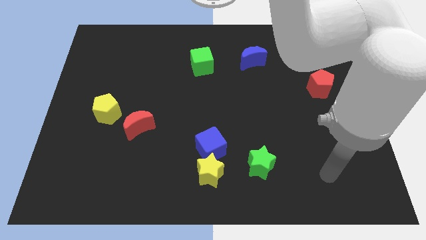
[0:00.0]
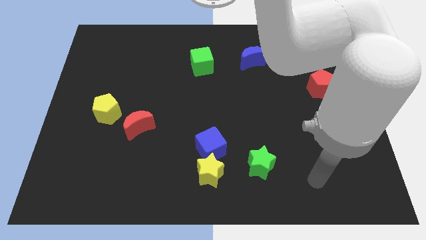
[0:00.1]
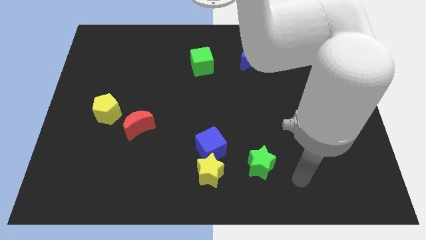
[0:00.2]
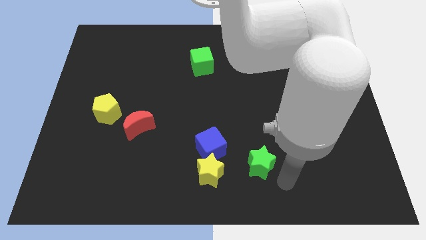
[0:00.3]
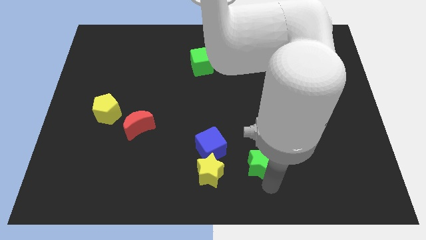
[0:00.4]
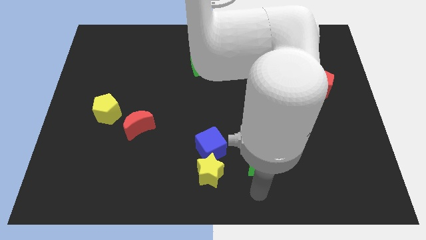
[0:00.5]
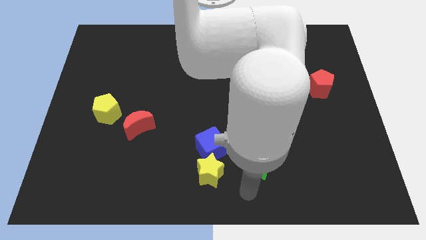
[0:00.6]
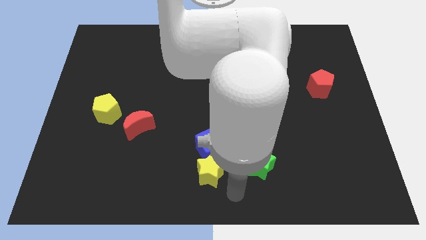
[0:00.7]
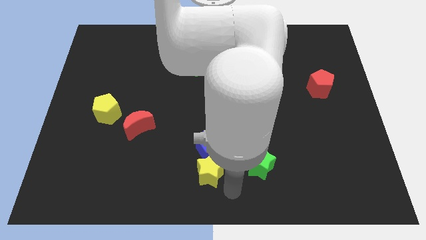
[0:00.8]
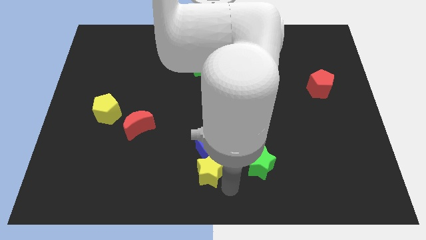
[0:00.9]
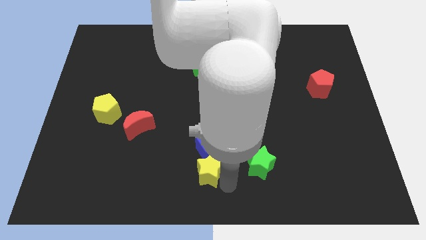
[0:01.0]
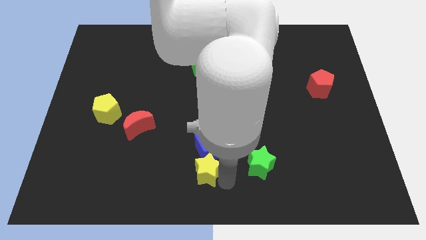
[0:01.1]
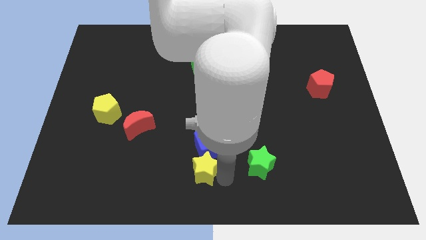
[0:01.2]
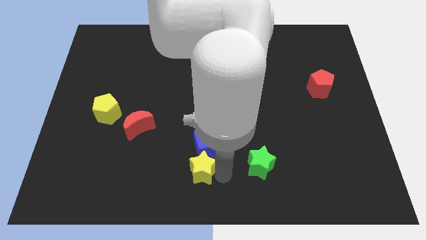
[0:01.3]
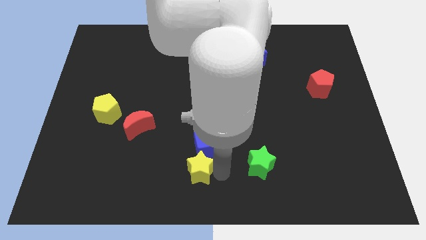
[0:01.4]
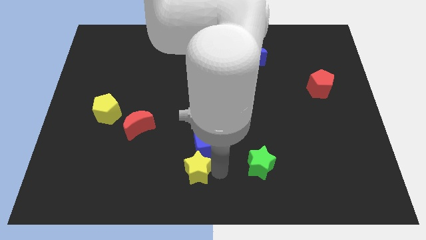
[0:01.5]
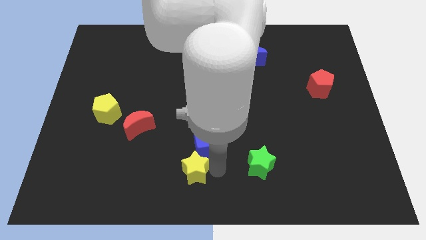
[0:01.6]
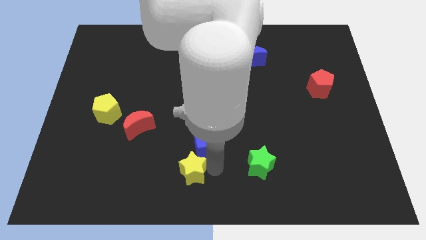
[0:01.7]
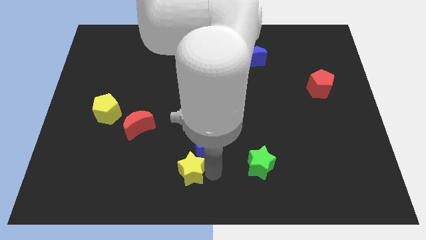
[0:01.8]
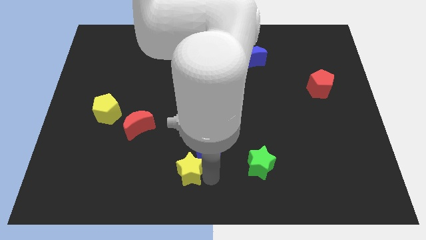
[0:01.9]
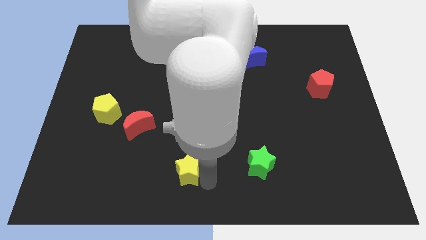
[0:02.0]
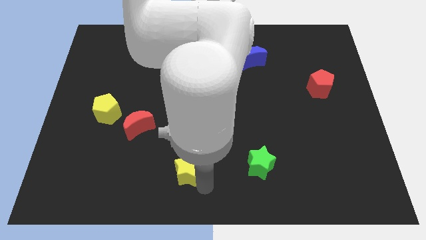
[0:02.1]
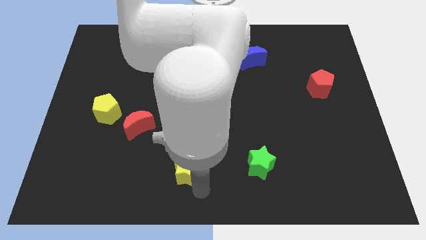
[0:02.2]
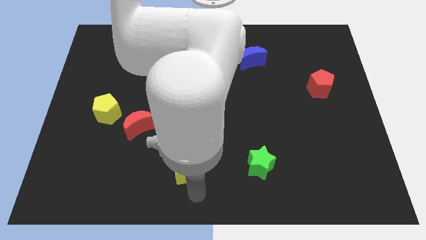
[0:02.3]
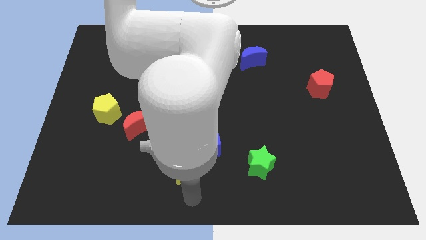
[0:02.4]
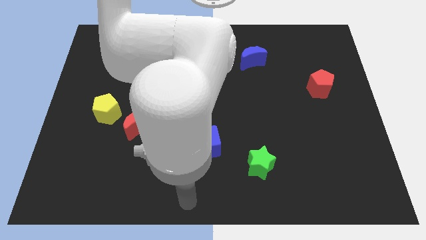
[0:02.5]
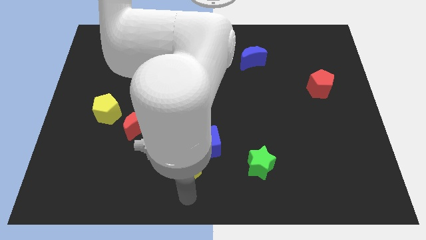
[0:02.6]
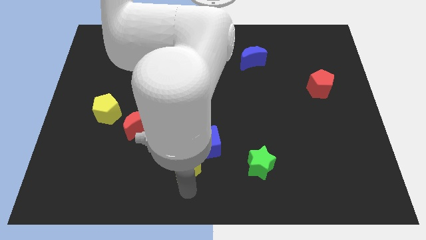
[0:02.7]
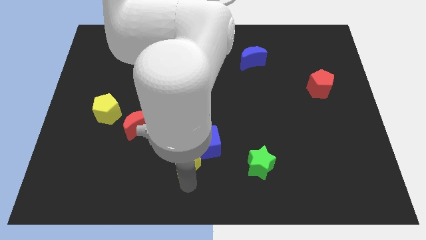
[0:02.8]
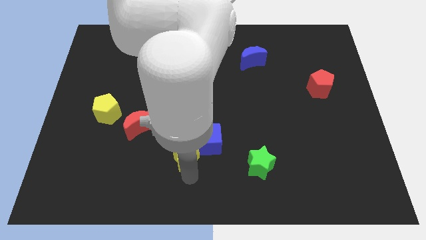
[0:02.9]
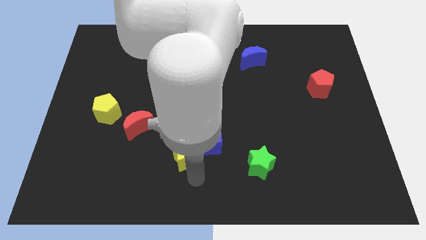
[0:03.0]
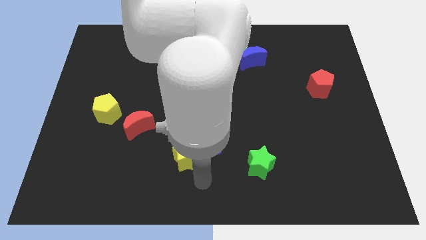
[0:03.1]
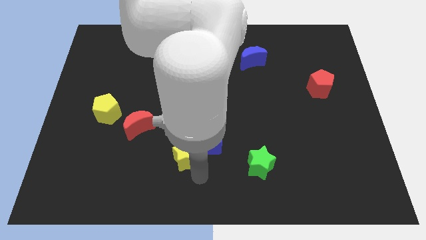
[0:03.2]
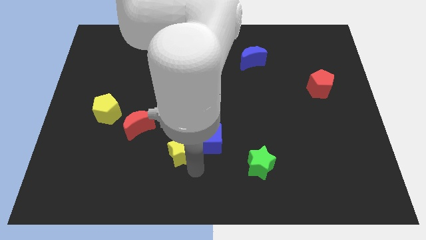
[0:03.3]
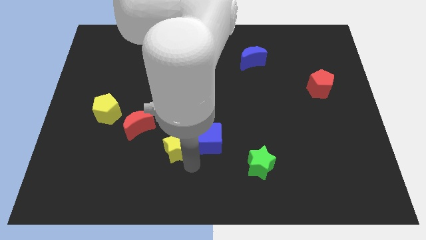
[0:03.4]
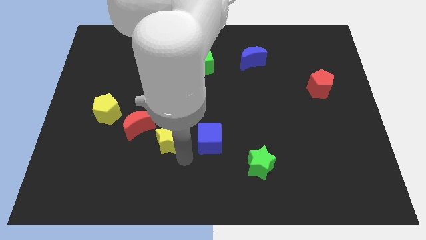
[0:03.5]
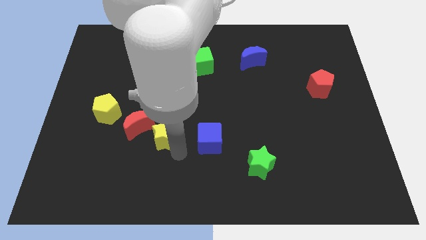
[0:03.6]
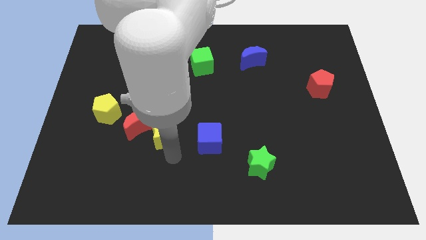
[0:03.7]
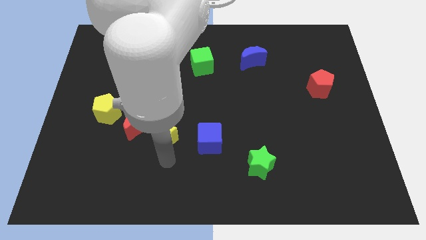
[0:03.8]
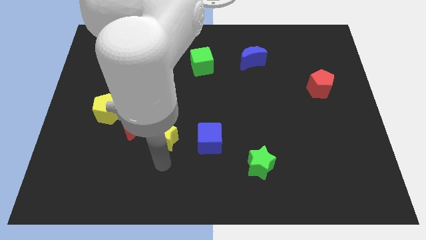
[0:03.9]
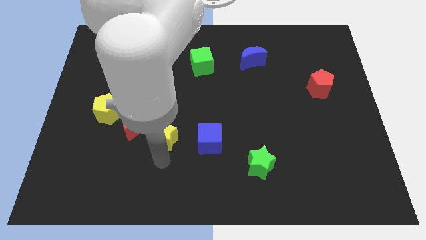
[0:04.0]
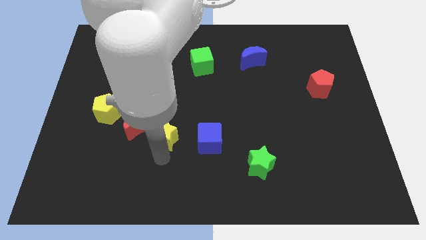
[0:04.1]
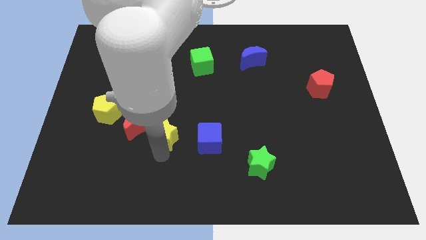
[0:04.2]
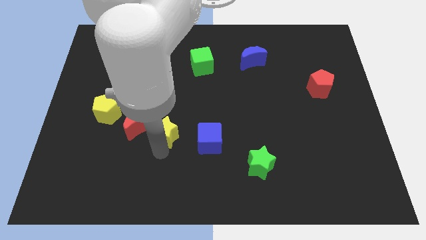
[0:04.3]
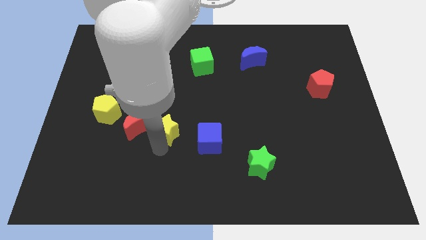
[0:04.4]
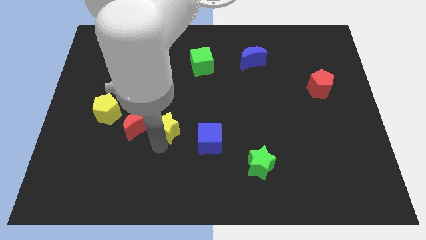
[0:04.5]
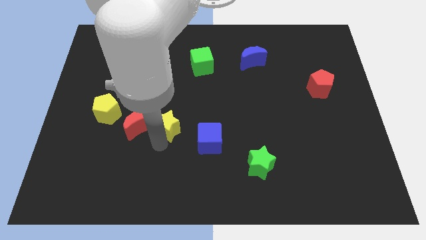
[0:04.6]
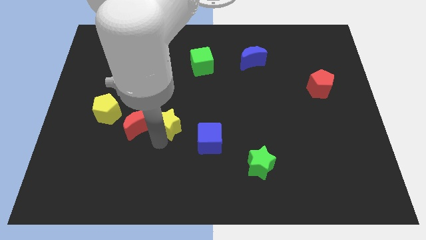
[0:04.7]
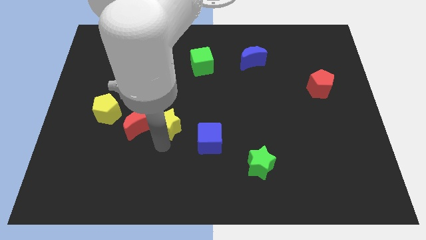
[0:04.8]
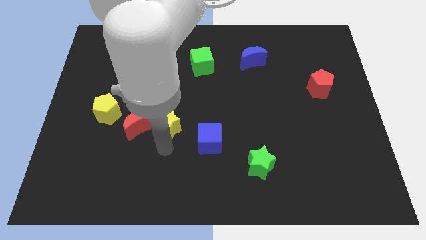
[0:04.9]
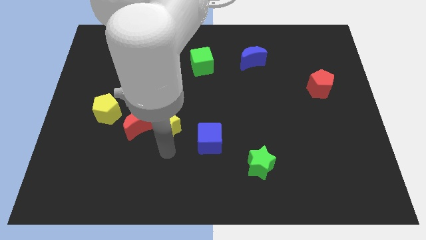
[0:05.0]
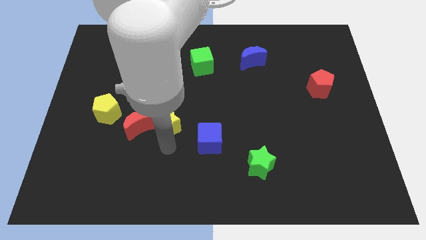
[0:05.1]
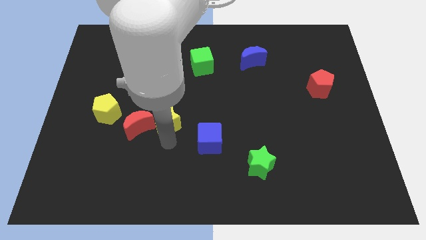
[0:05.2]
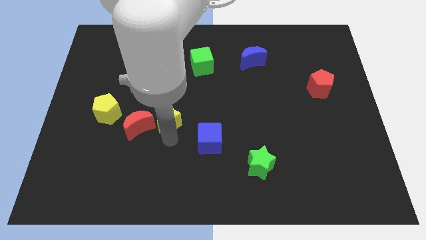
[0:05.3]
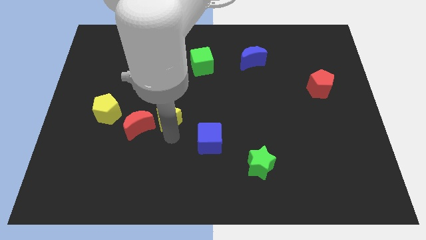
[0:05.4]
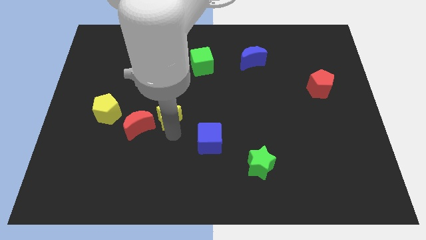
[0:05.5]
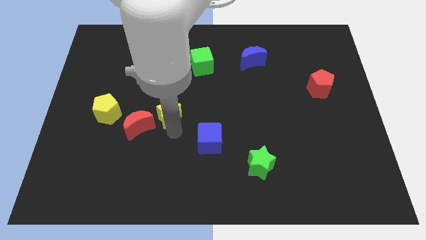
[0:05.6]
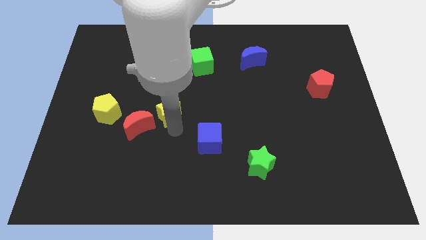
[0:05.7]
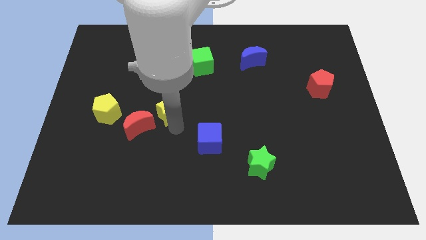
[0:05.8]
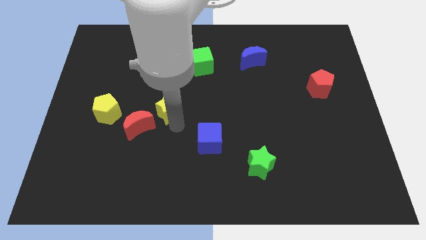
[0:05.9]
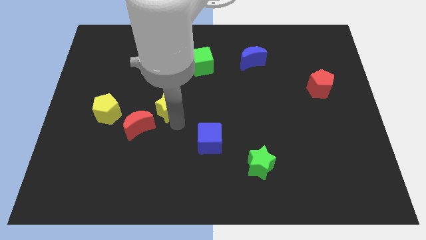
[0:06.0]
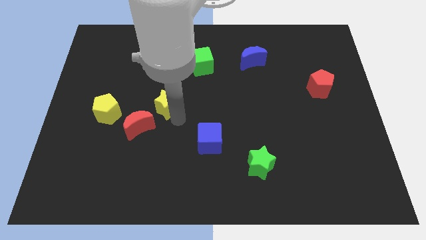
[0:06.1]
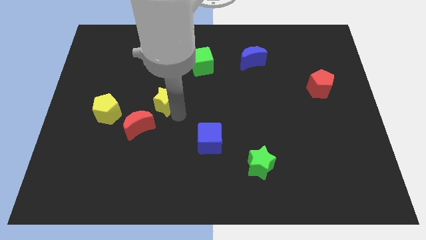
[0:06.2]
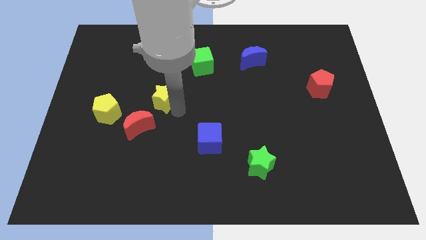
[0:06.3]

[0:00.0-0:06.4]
push the yellow star up and left diagonally

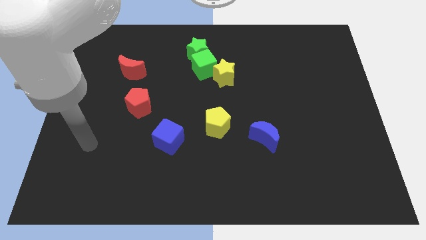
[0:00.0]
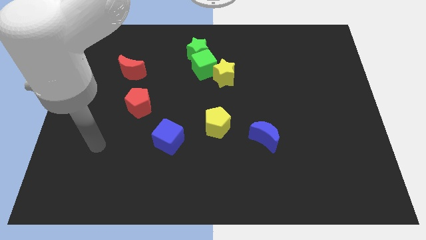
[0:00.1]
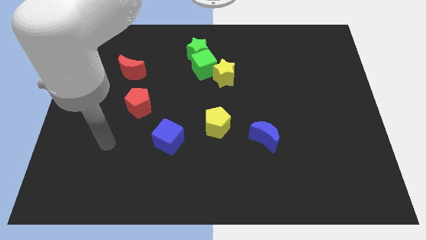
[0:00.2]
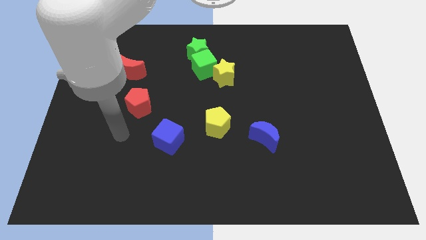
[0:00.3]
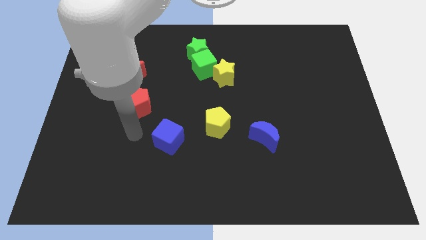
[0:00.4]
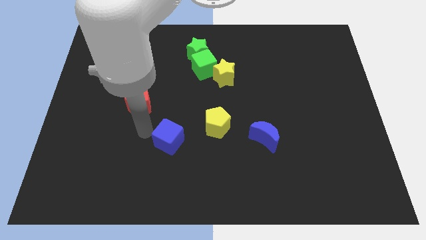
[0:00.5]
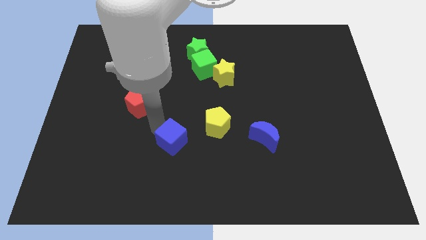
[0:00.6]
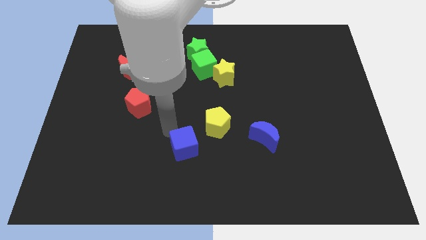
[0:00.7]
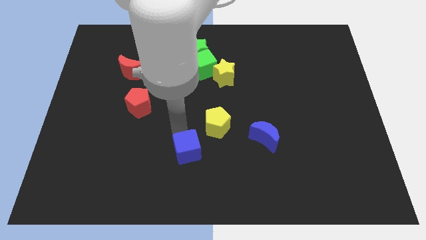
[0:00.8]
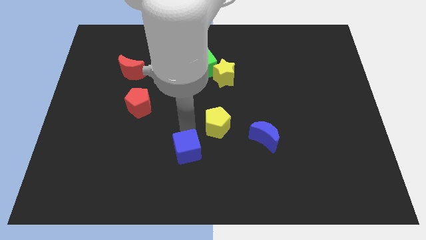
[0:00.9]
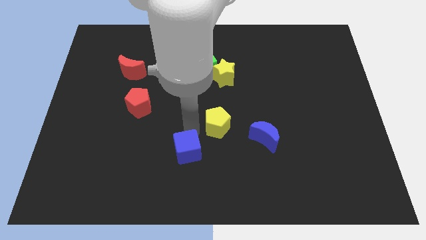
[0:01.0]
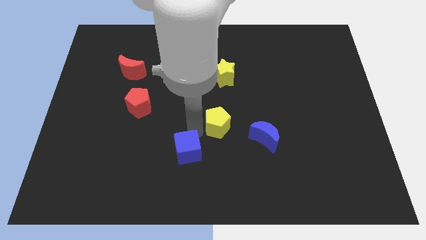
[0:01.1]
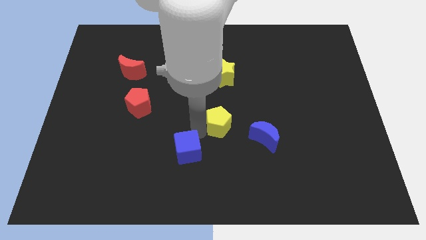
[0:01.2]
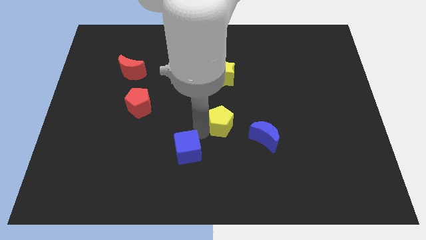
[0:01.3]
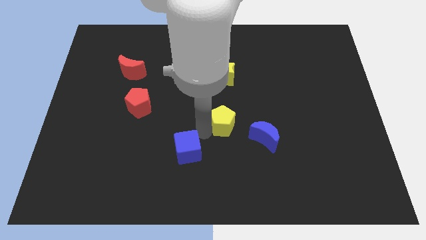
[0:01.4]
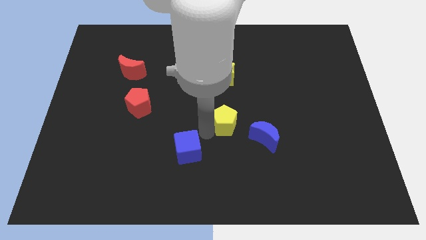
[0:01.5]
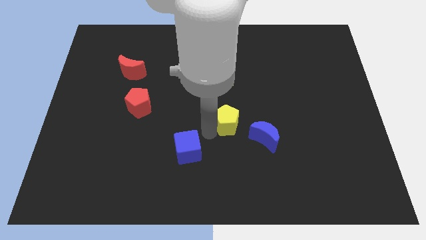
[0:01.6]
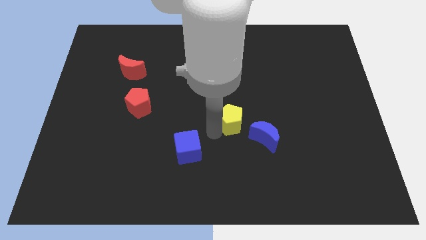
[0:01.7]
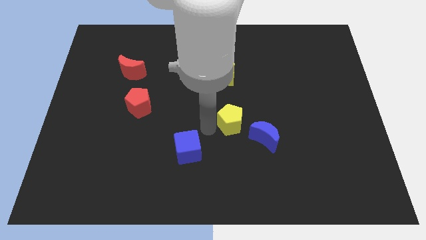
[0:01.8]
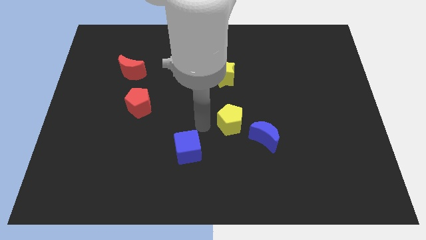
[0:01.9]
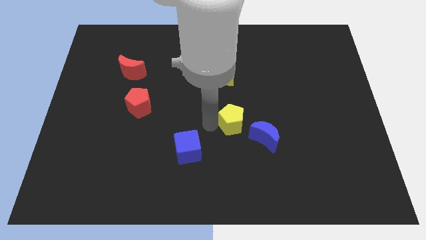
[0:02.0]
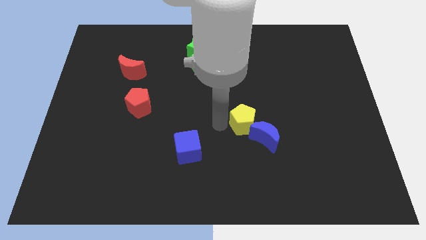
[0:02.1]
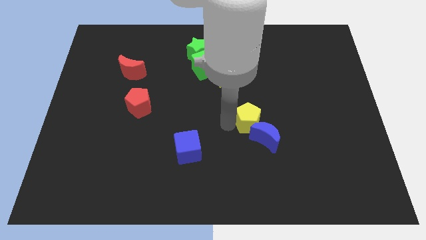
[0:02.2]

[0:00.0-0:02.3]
move the yellow pentagon to the right a bit
